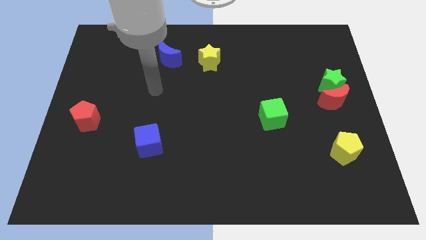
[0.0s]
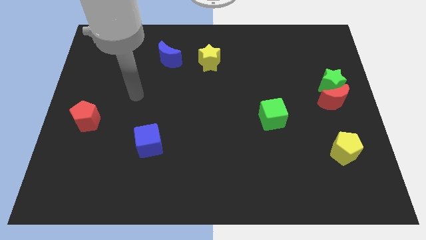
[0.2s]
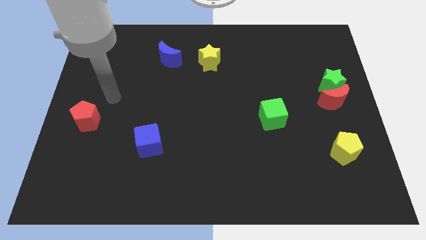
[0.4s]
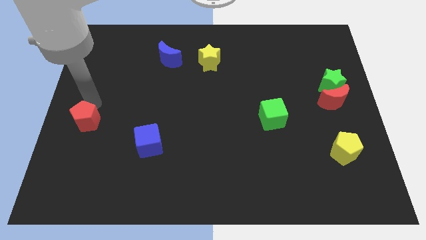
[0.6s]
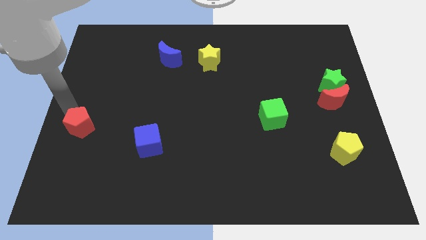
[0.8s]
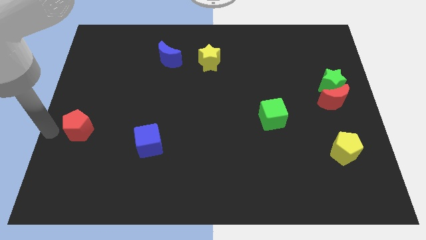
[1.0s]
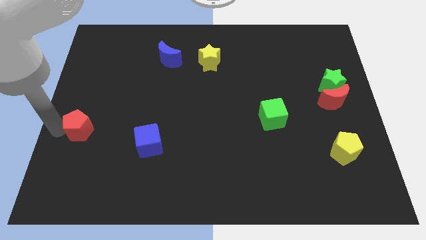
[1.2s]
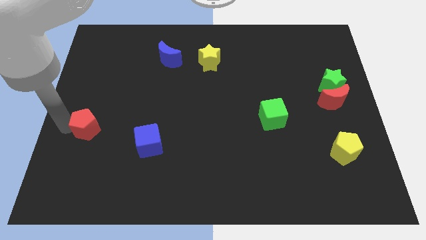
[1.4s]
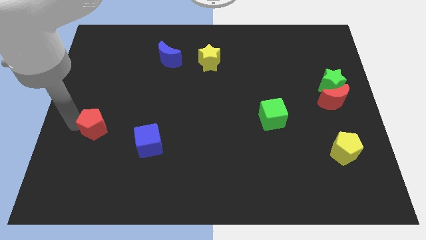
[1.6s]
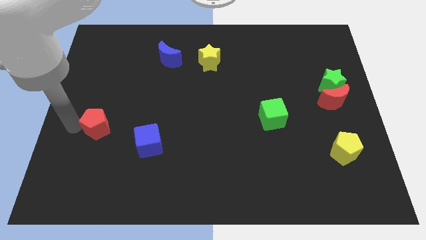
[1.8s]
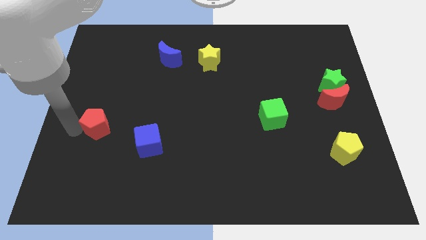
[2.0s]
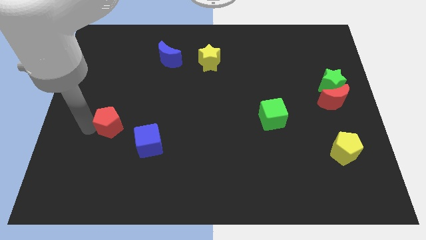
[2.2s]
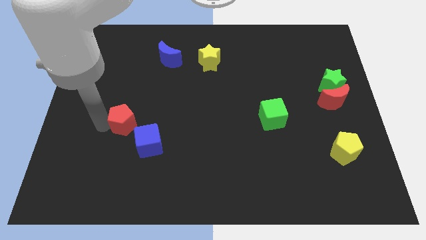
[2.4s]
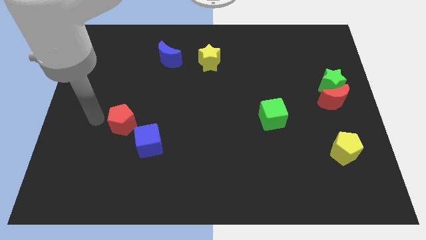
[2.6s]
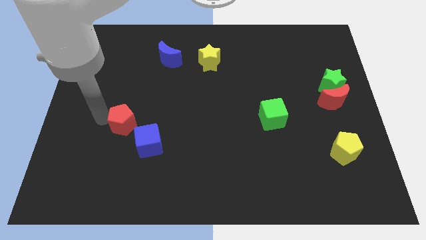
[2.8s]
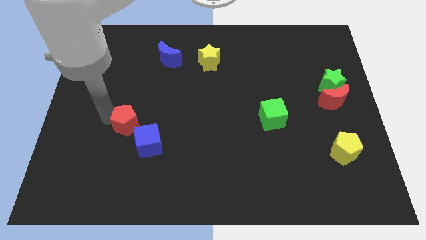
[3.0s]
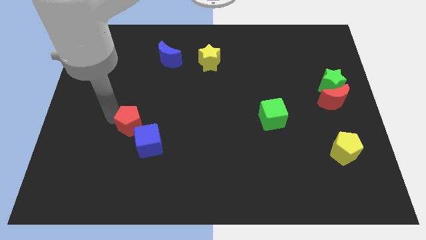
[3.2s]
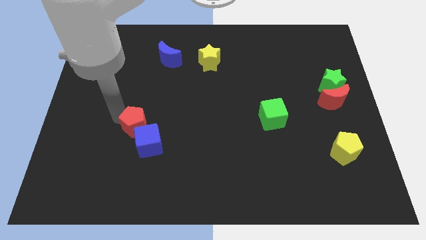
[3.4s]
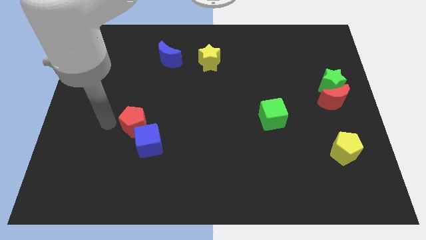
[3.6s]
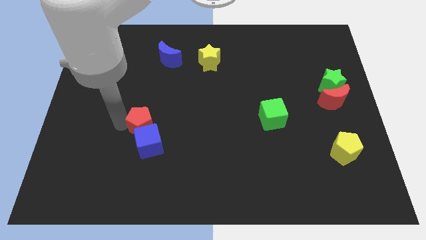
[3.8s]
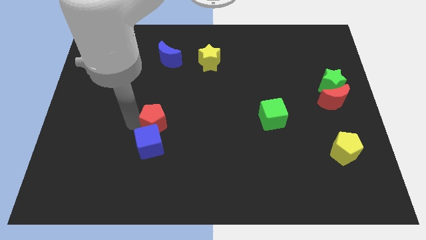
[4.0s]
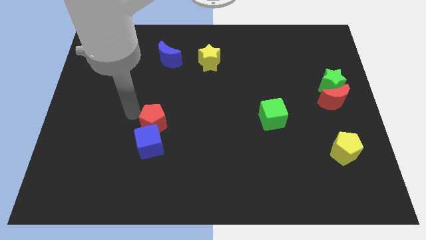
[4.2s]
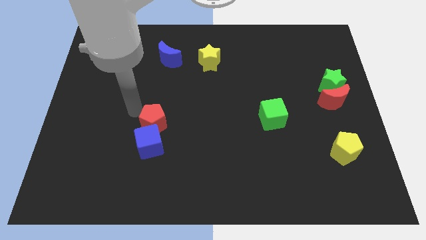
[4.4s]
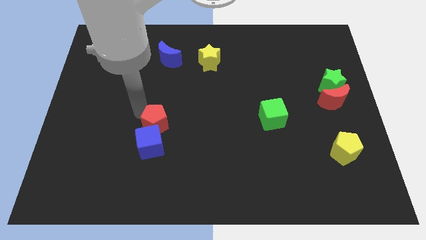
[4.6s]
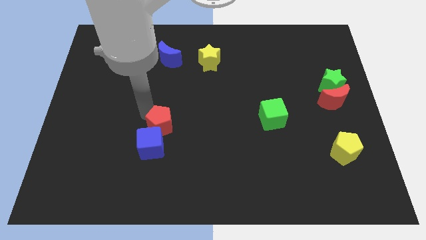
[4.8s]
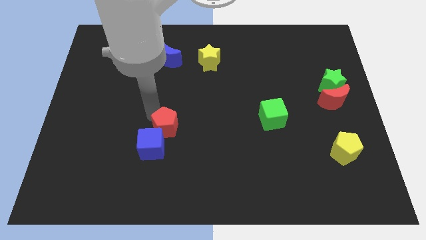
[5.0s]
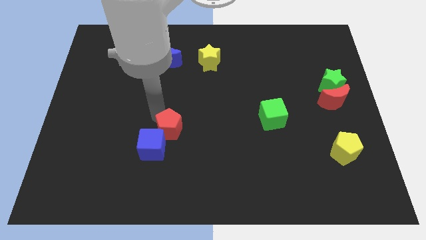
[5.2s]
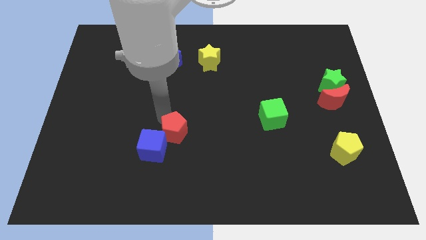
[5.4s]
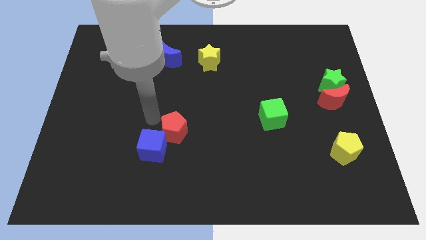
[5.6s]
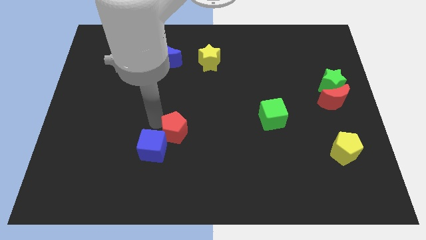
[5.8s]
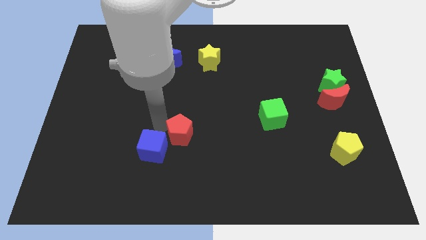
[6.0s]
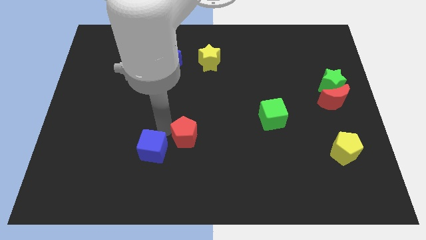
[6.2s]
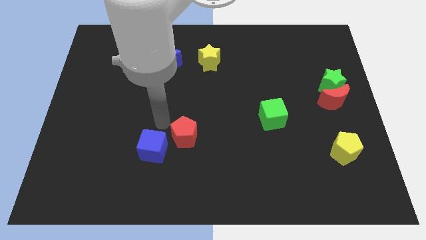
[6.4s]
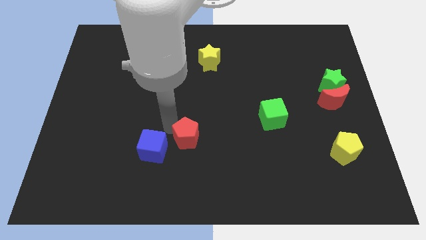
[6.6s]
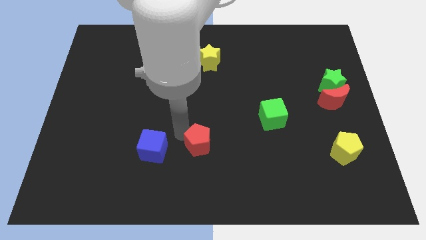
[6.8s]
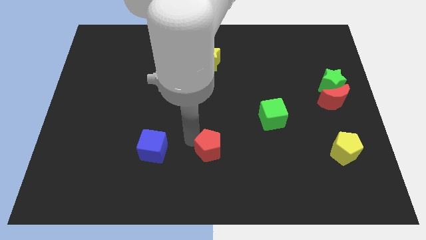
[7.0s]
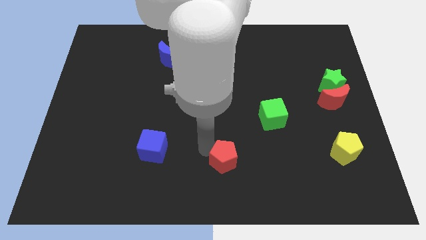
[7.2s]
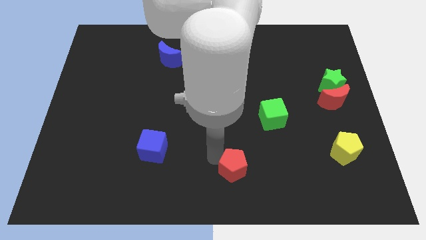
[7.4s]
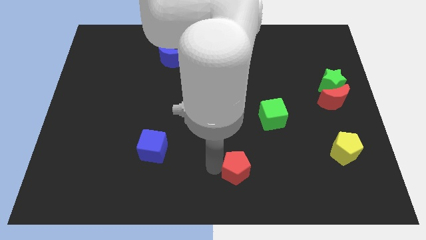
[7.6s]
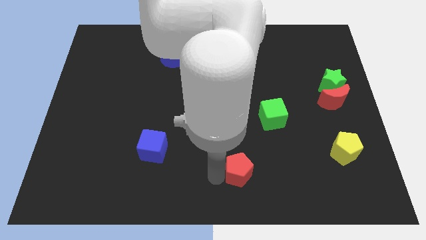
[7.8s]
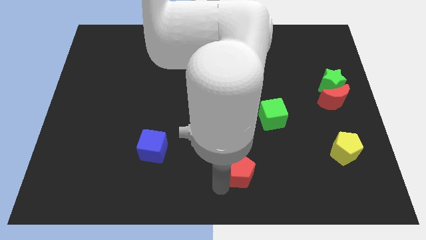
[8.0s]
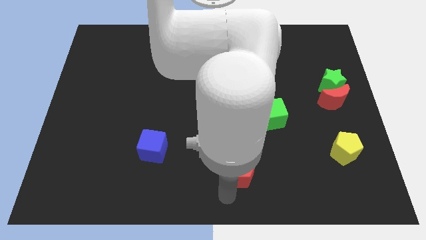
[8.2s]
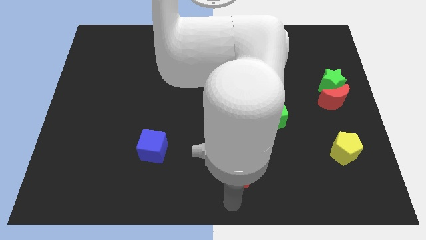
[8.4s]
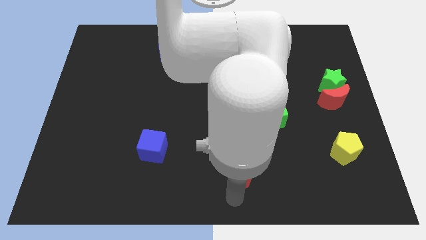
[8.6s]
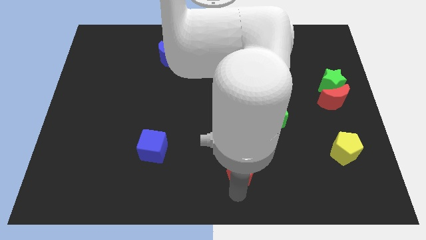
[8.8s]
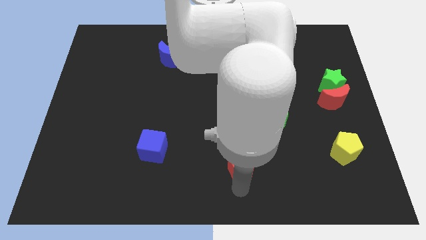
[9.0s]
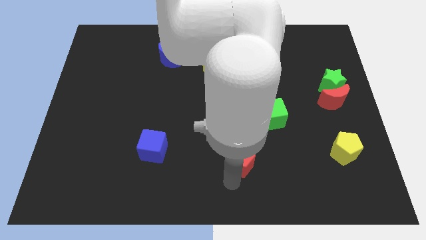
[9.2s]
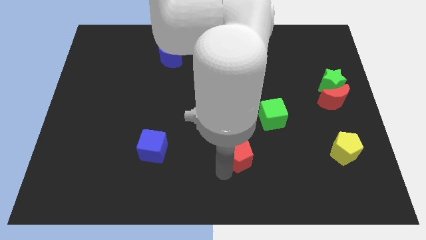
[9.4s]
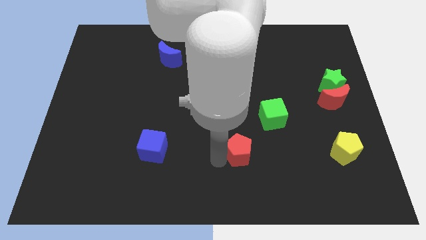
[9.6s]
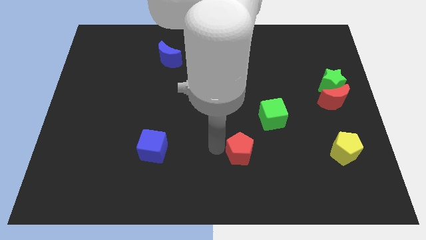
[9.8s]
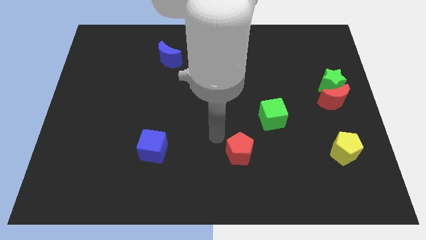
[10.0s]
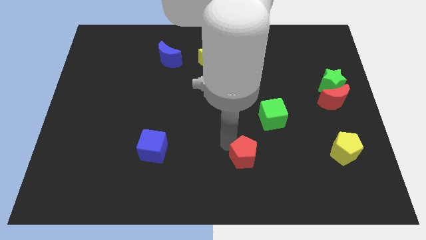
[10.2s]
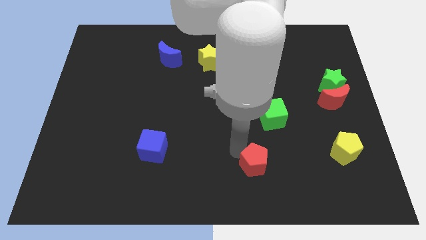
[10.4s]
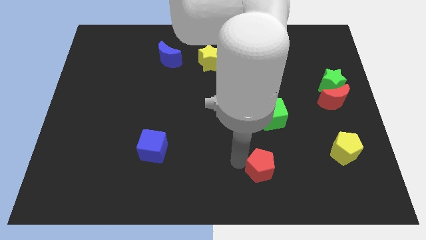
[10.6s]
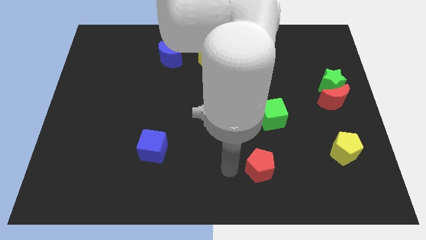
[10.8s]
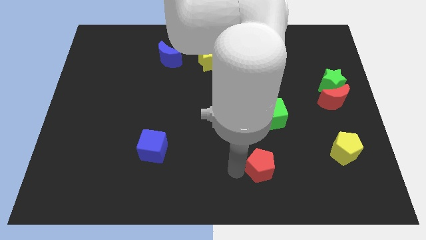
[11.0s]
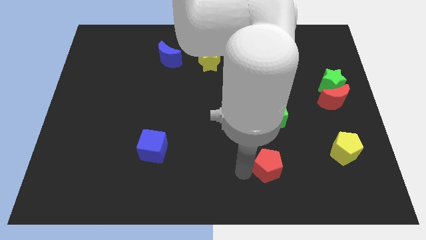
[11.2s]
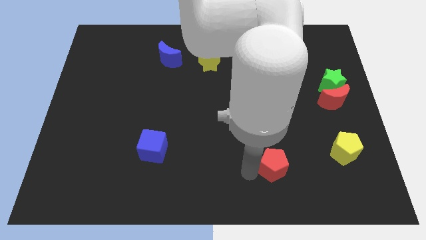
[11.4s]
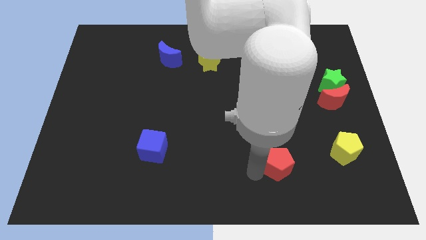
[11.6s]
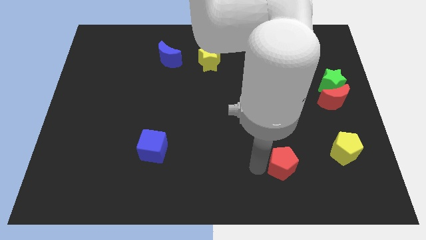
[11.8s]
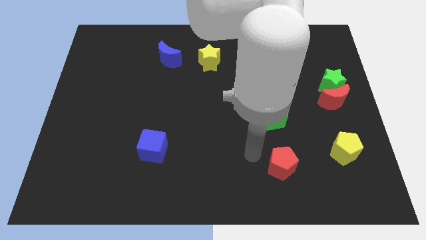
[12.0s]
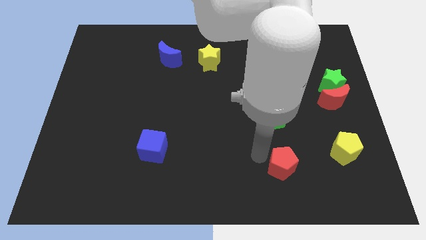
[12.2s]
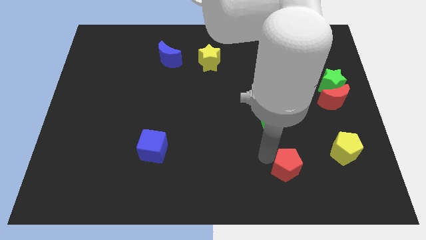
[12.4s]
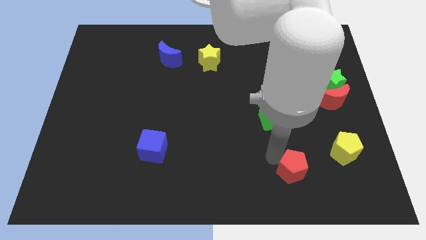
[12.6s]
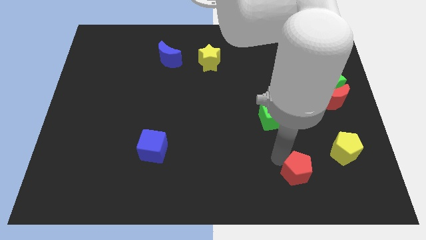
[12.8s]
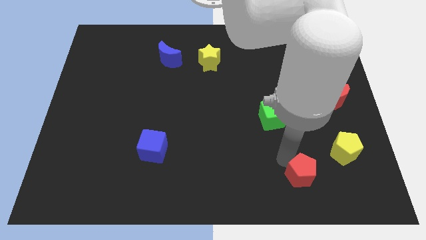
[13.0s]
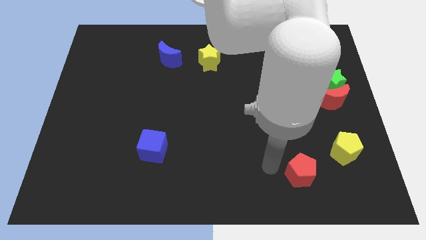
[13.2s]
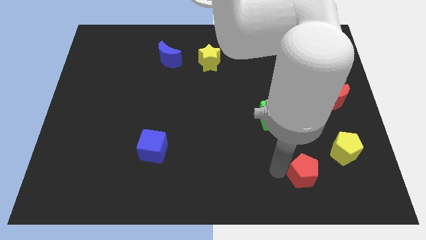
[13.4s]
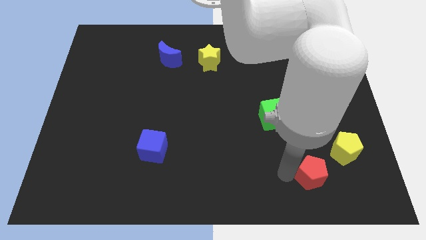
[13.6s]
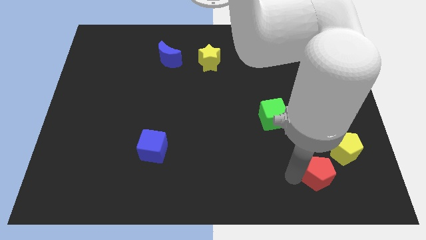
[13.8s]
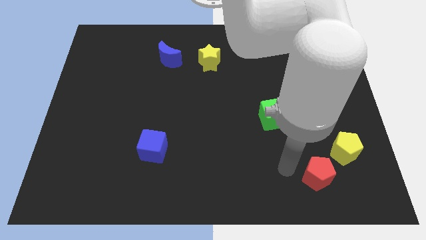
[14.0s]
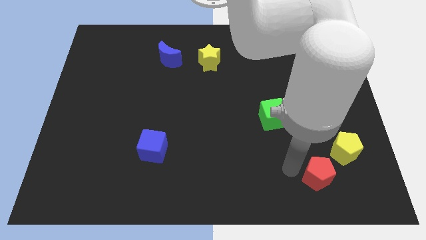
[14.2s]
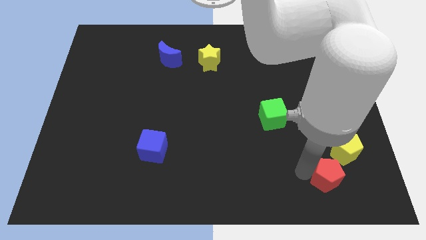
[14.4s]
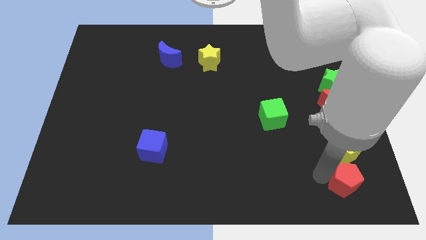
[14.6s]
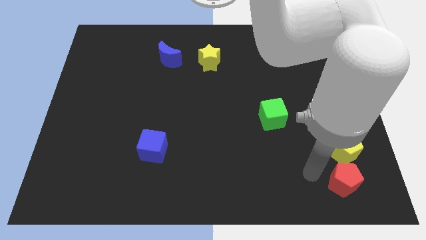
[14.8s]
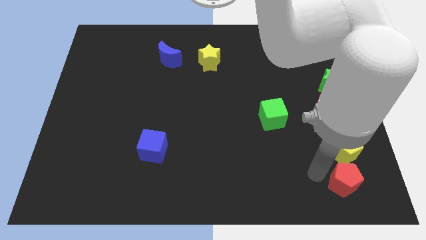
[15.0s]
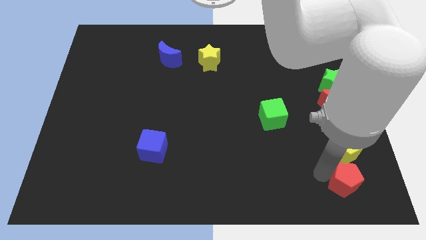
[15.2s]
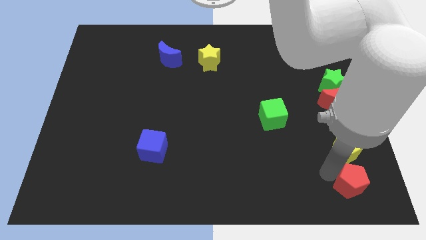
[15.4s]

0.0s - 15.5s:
move the red pentagon to the lower right corner
